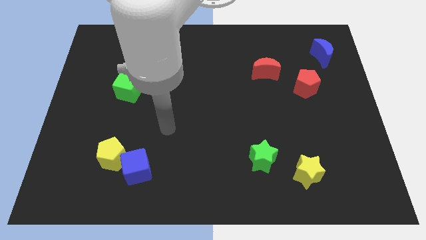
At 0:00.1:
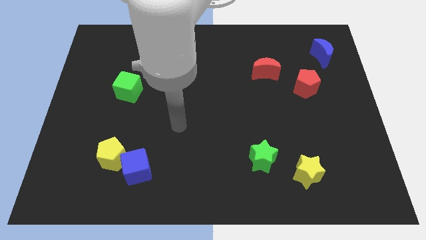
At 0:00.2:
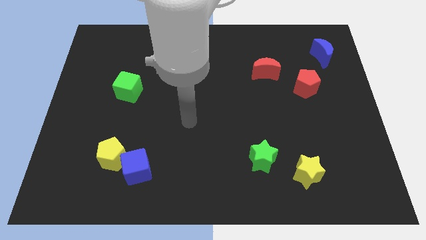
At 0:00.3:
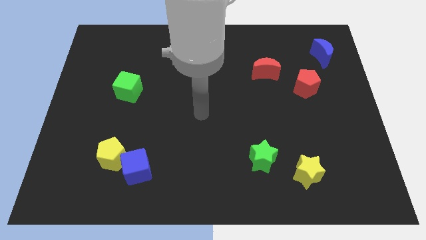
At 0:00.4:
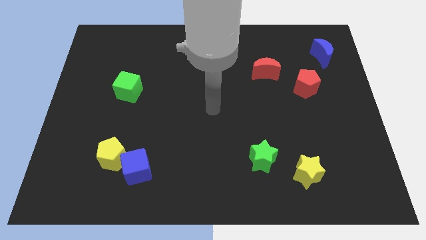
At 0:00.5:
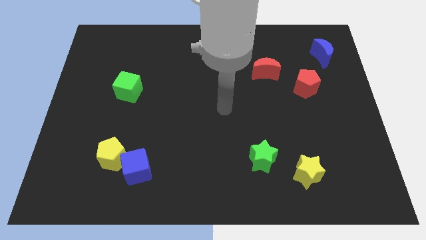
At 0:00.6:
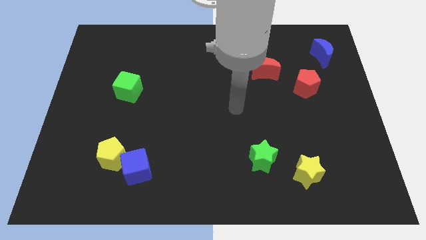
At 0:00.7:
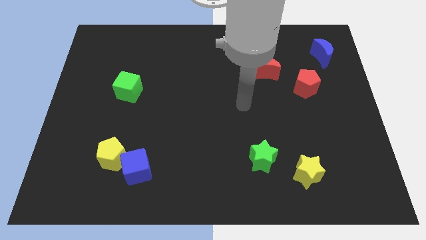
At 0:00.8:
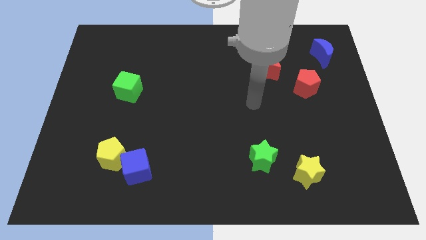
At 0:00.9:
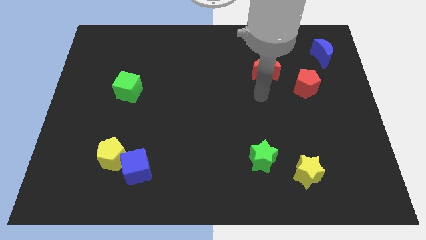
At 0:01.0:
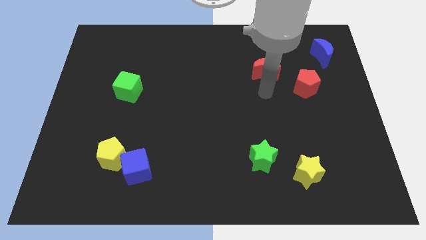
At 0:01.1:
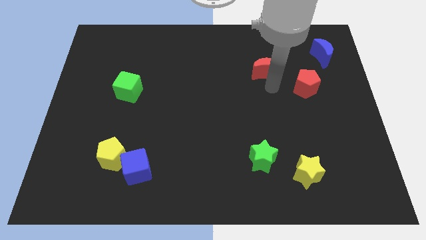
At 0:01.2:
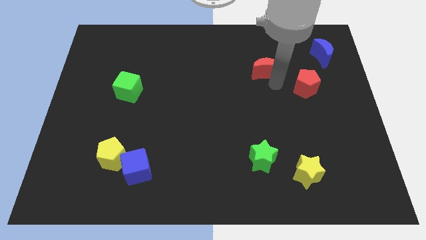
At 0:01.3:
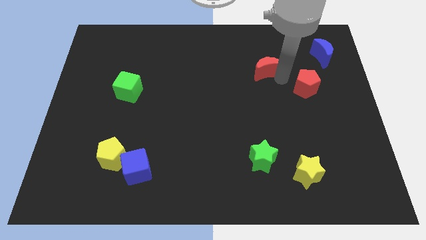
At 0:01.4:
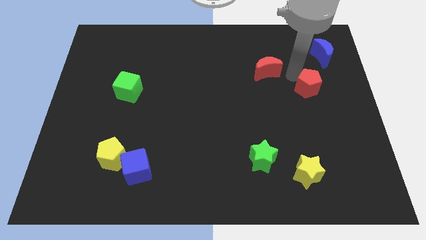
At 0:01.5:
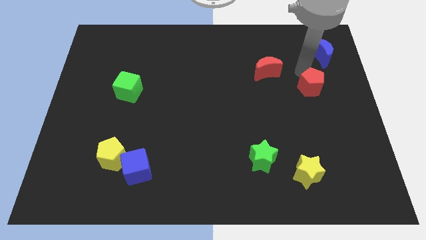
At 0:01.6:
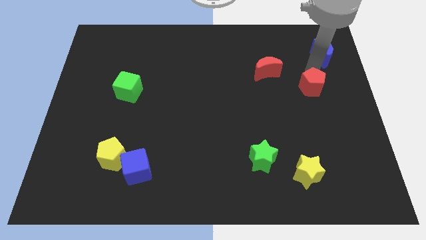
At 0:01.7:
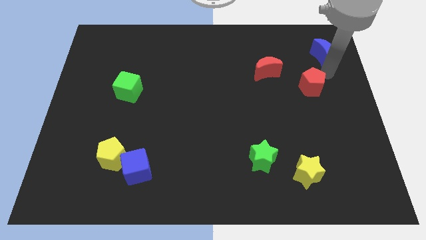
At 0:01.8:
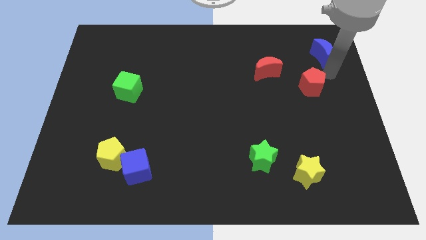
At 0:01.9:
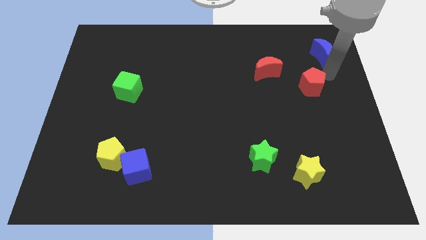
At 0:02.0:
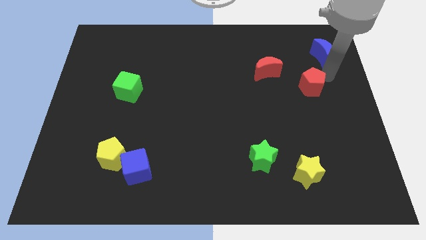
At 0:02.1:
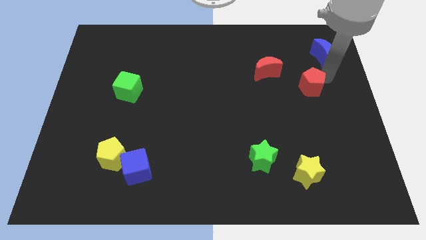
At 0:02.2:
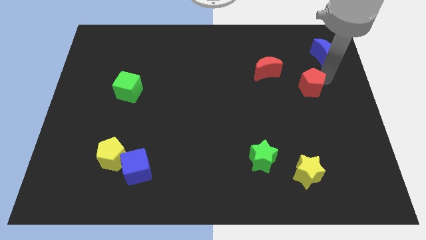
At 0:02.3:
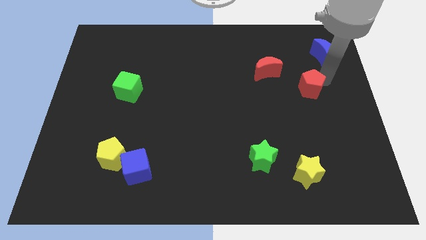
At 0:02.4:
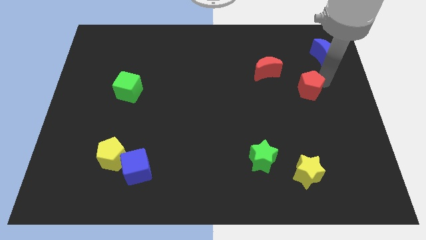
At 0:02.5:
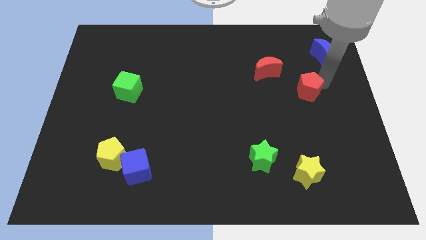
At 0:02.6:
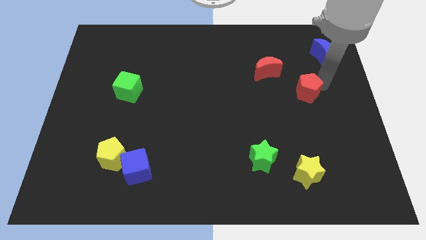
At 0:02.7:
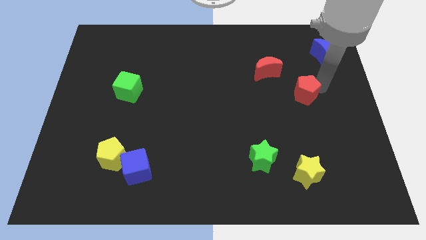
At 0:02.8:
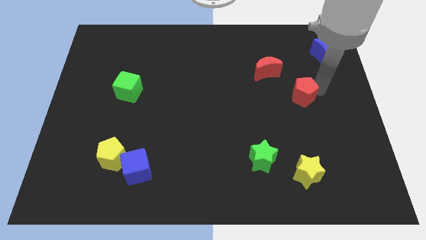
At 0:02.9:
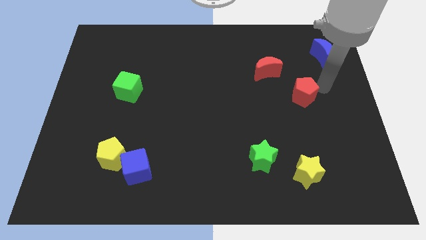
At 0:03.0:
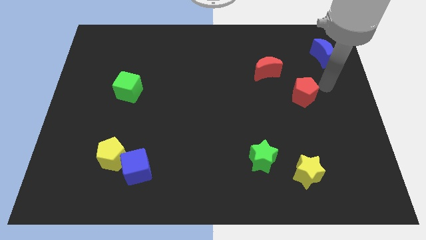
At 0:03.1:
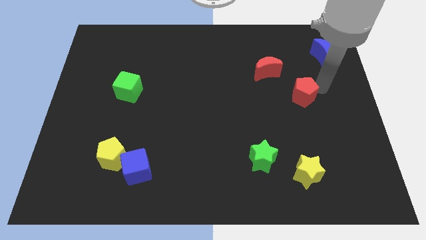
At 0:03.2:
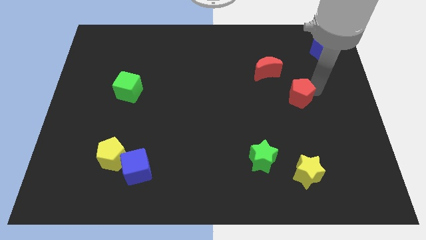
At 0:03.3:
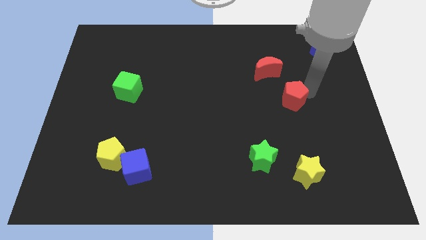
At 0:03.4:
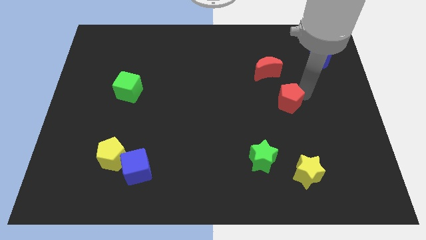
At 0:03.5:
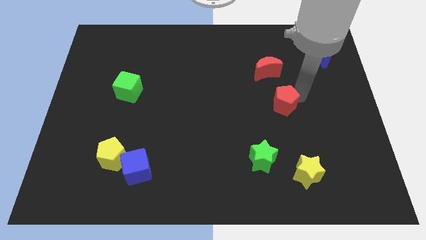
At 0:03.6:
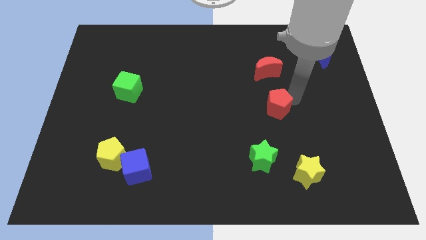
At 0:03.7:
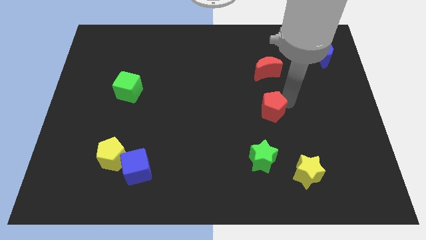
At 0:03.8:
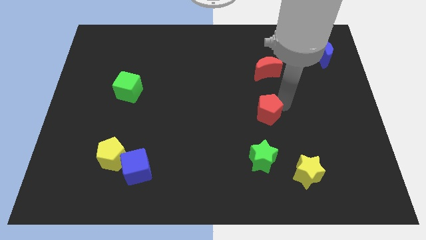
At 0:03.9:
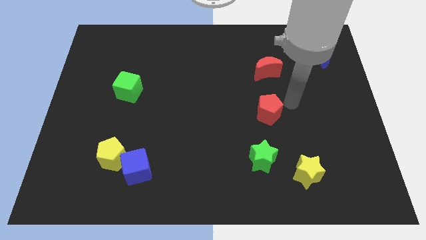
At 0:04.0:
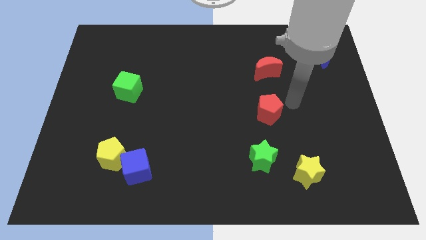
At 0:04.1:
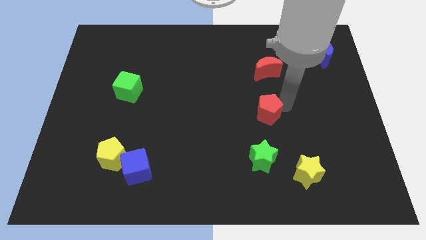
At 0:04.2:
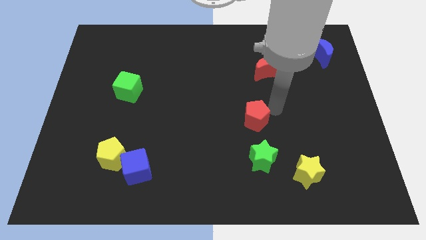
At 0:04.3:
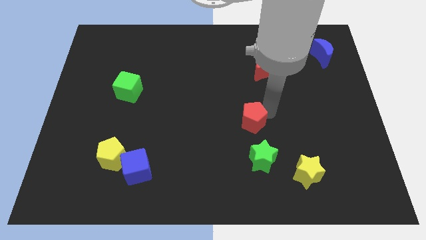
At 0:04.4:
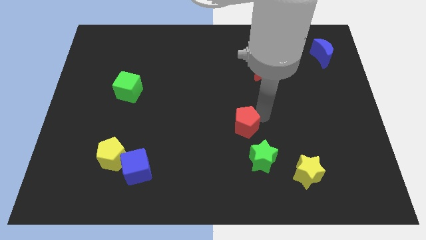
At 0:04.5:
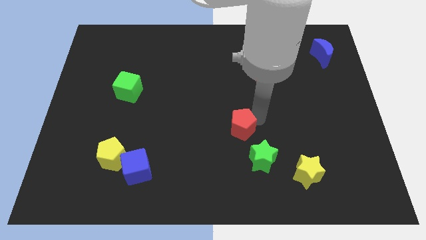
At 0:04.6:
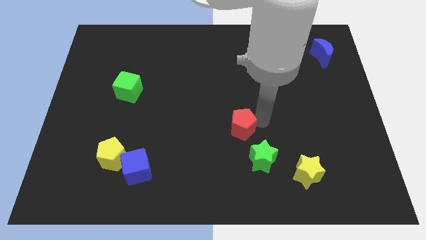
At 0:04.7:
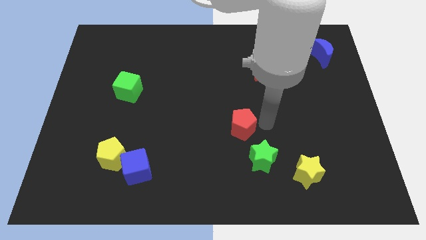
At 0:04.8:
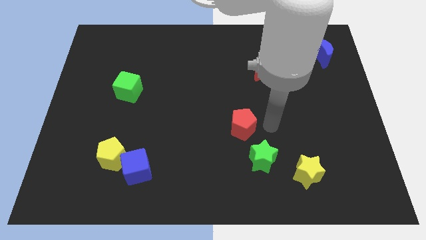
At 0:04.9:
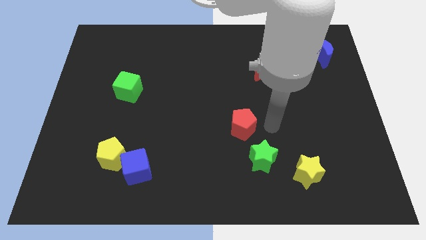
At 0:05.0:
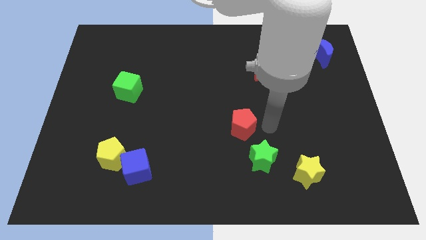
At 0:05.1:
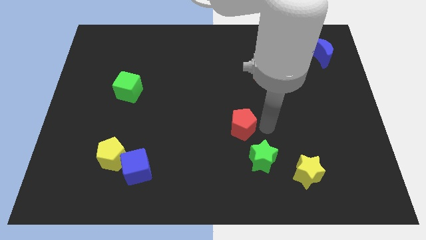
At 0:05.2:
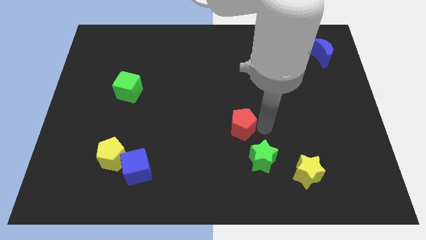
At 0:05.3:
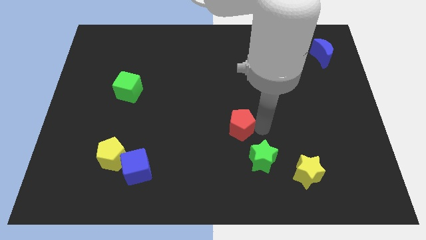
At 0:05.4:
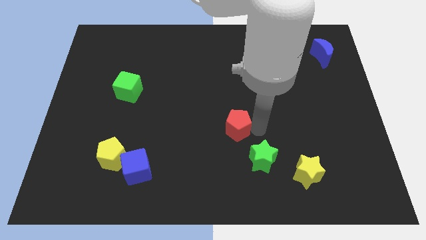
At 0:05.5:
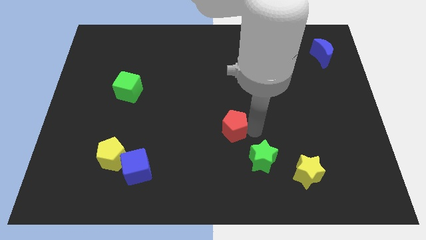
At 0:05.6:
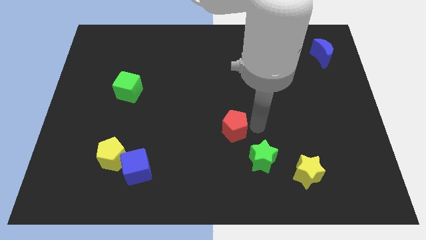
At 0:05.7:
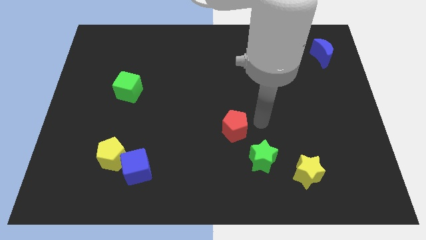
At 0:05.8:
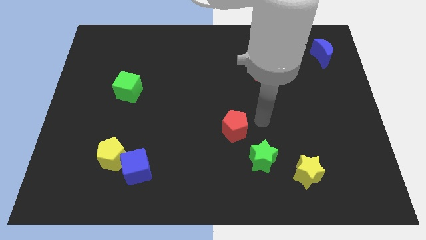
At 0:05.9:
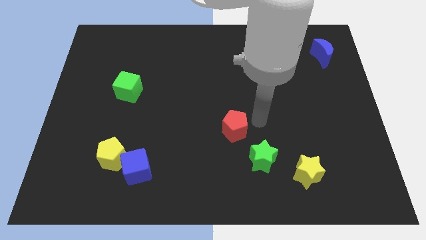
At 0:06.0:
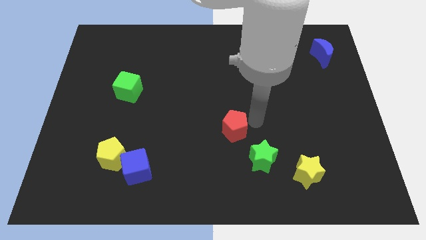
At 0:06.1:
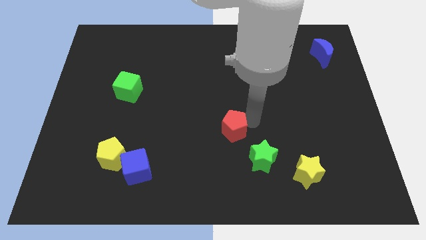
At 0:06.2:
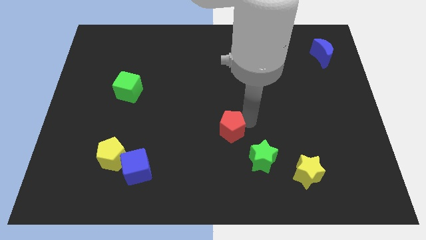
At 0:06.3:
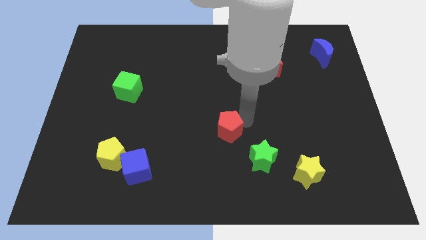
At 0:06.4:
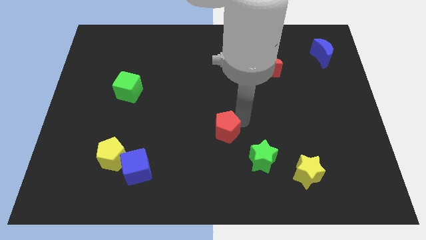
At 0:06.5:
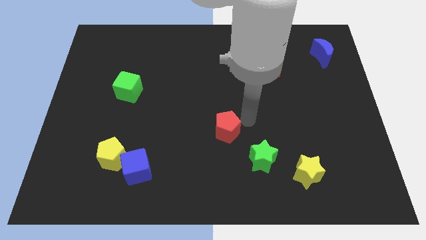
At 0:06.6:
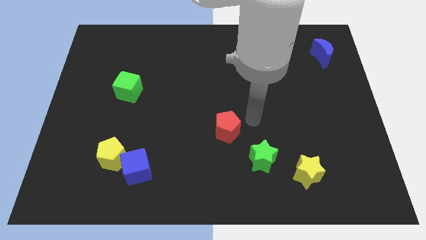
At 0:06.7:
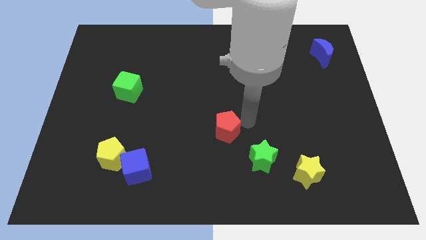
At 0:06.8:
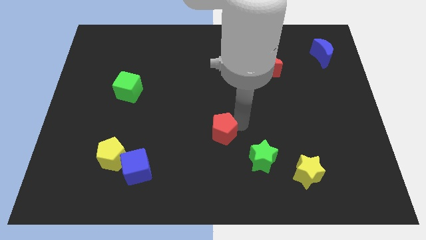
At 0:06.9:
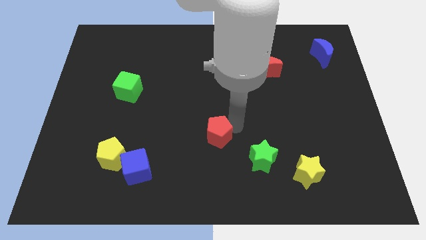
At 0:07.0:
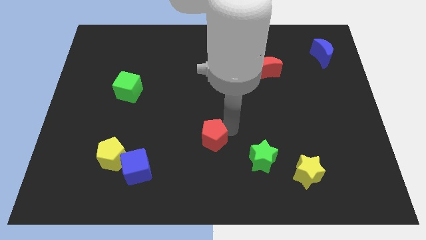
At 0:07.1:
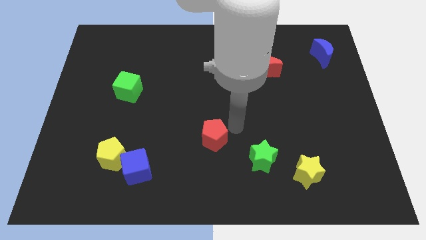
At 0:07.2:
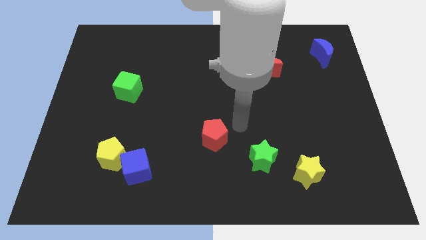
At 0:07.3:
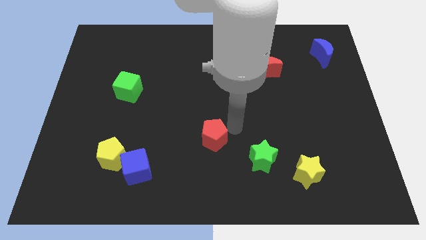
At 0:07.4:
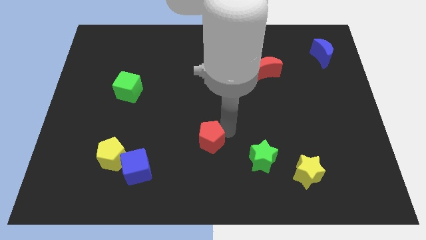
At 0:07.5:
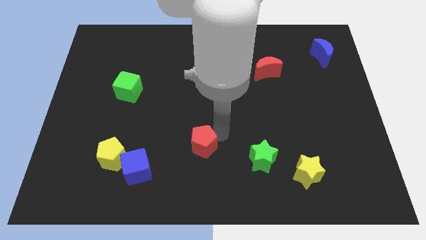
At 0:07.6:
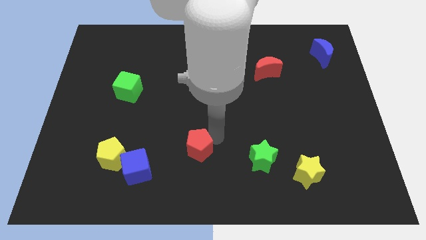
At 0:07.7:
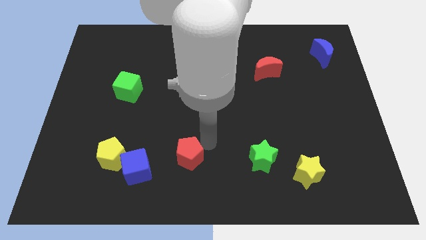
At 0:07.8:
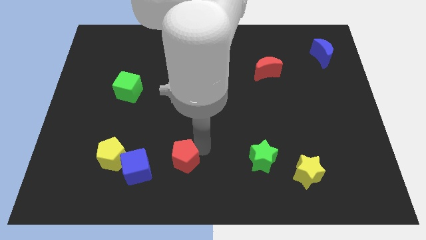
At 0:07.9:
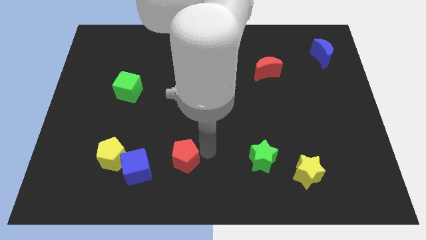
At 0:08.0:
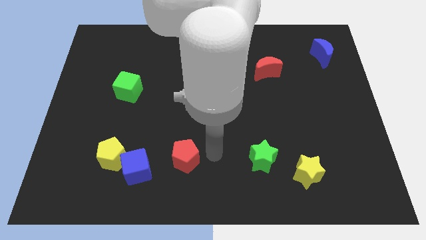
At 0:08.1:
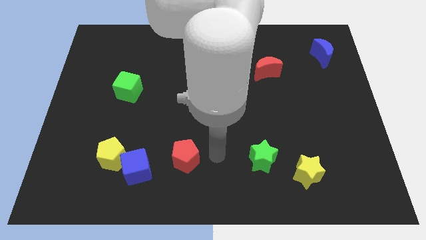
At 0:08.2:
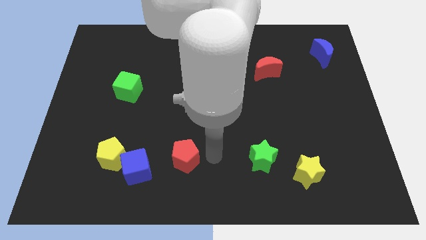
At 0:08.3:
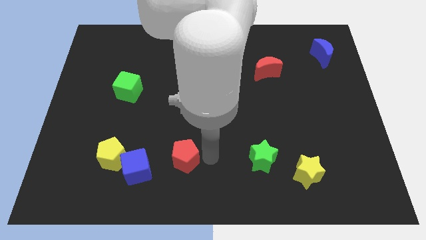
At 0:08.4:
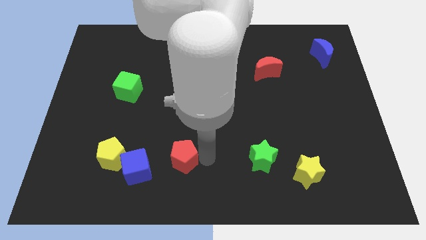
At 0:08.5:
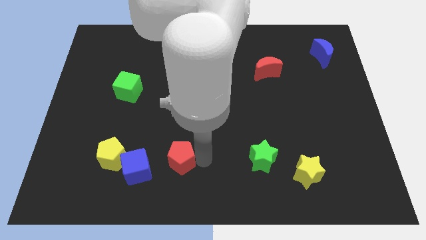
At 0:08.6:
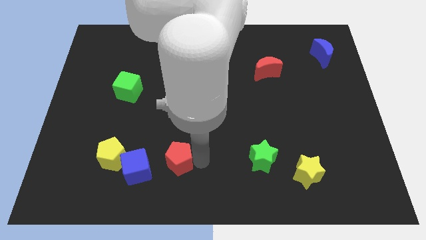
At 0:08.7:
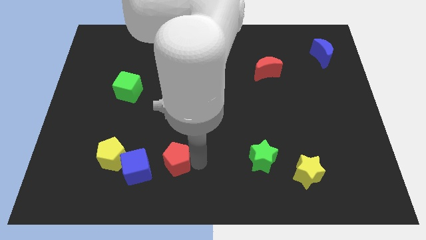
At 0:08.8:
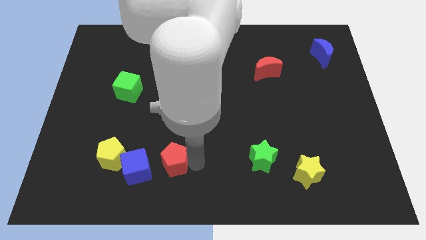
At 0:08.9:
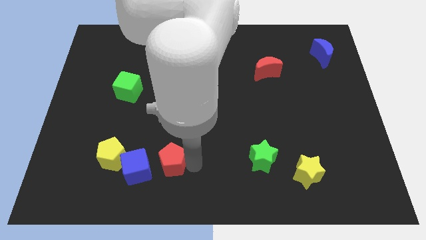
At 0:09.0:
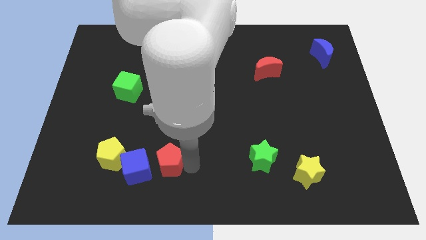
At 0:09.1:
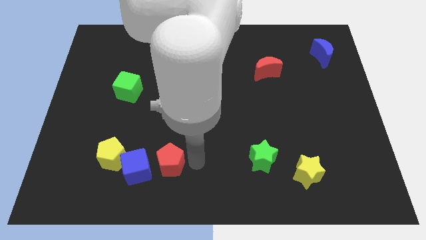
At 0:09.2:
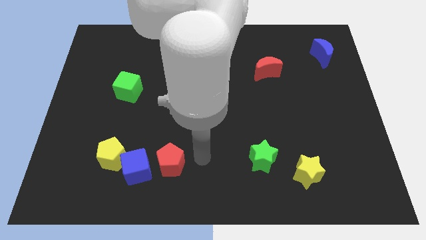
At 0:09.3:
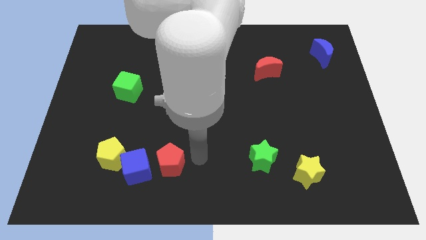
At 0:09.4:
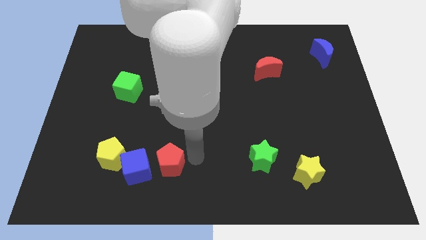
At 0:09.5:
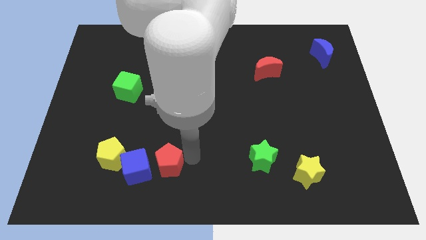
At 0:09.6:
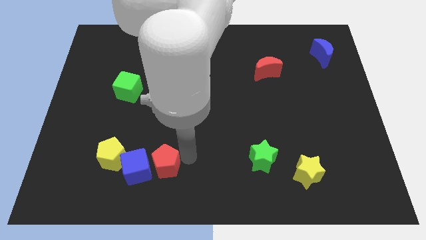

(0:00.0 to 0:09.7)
slide the red pentagon to the blue cube
